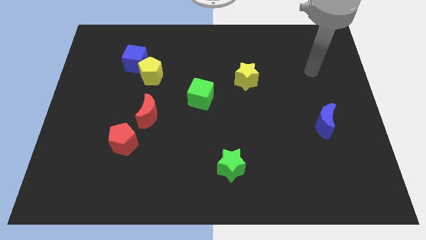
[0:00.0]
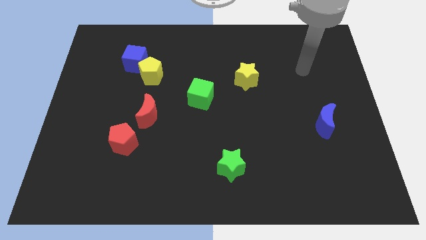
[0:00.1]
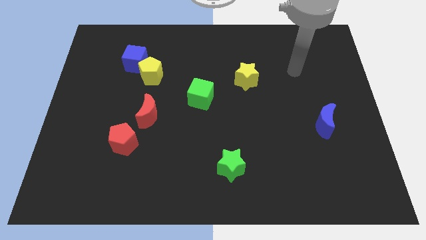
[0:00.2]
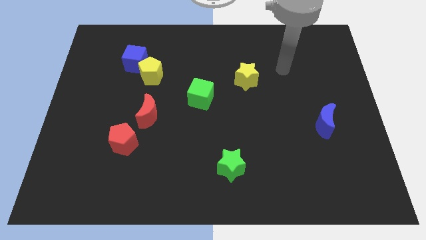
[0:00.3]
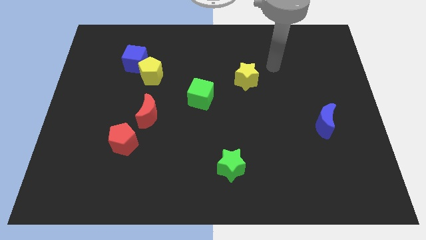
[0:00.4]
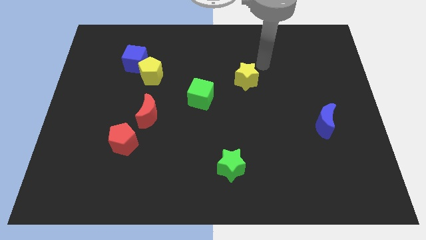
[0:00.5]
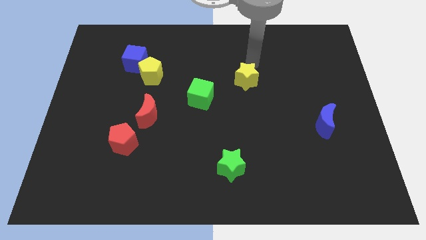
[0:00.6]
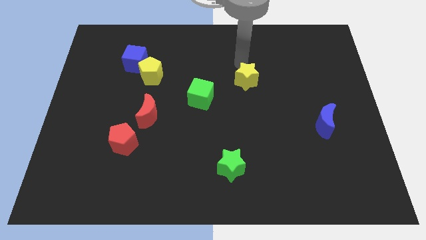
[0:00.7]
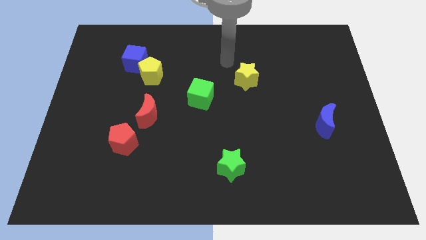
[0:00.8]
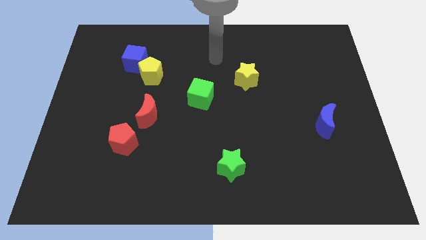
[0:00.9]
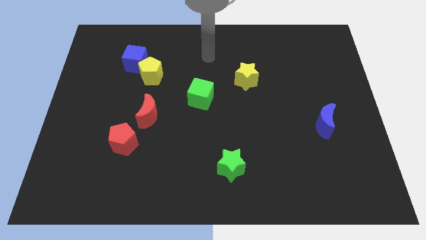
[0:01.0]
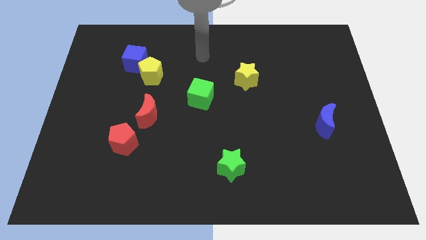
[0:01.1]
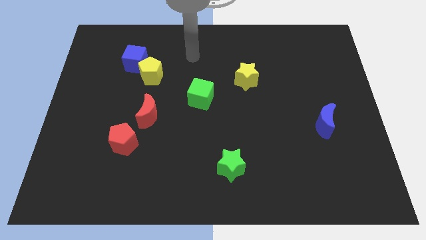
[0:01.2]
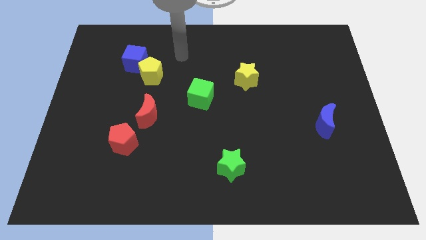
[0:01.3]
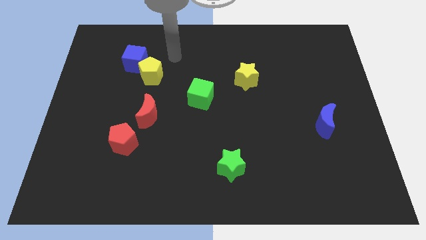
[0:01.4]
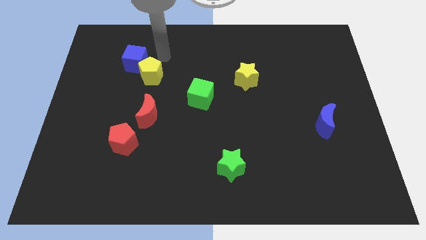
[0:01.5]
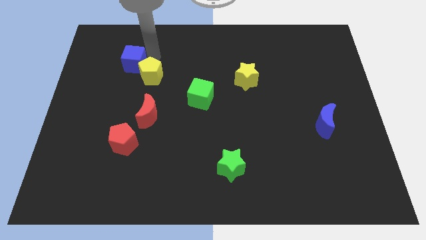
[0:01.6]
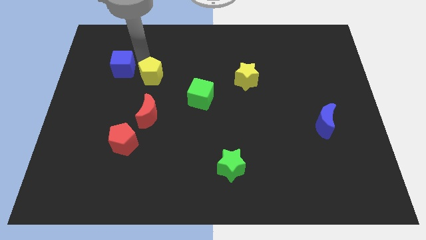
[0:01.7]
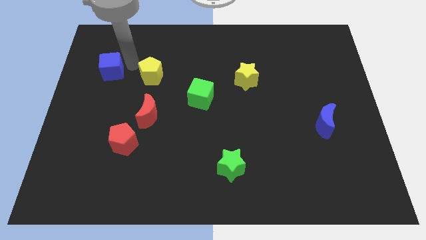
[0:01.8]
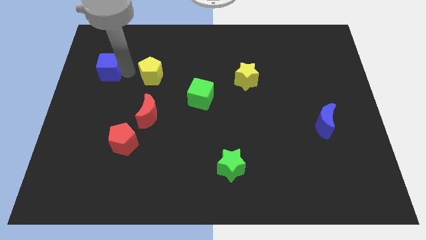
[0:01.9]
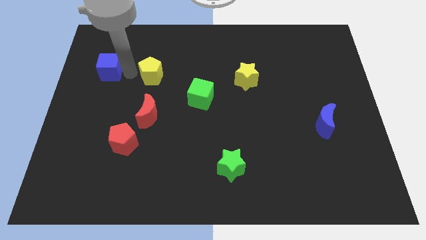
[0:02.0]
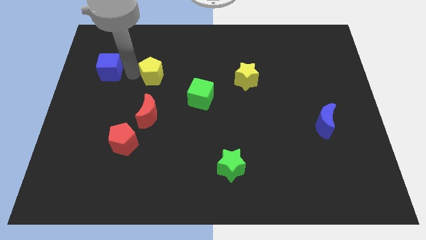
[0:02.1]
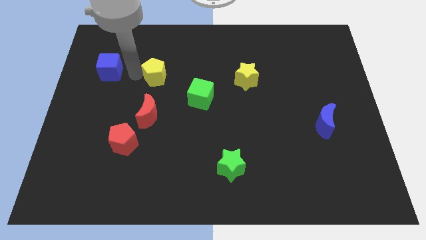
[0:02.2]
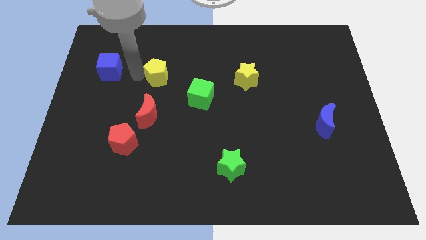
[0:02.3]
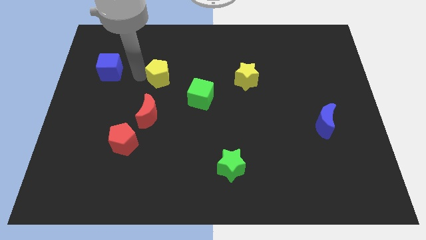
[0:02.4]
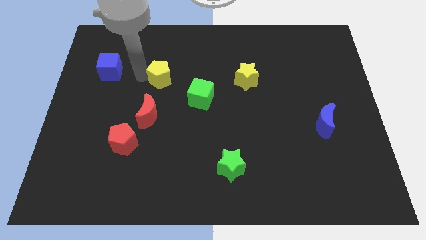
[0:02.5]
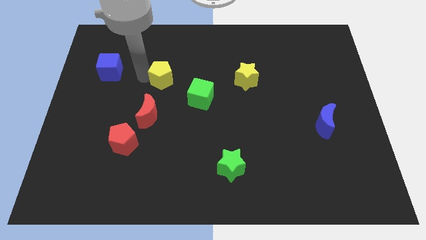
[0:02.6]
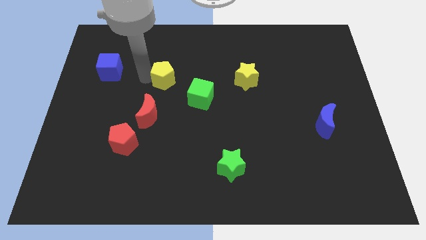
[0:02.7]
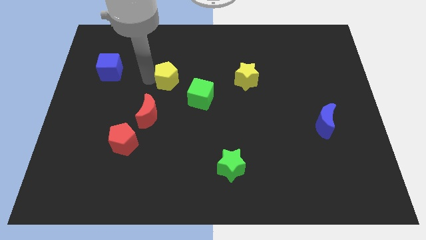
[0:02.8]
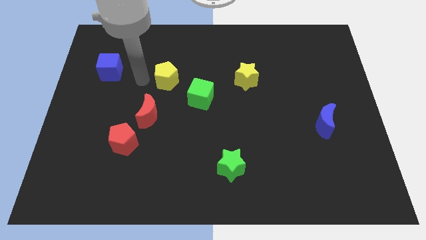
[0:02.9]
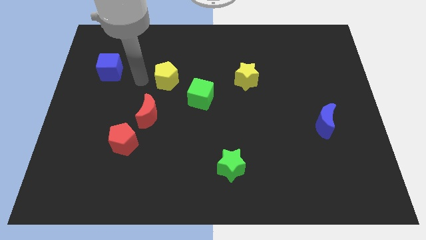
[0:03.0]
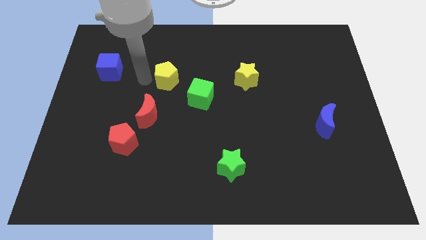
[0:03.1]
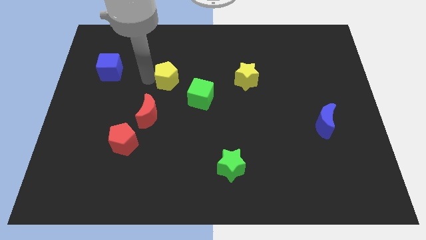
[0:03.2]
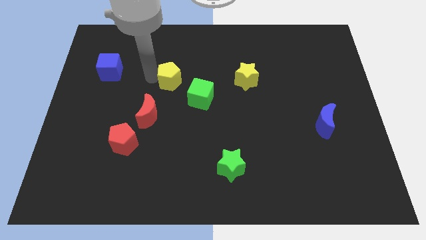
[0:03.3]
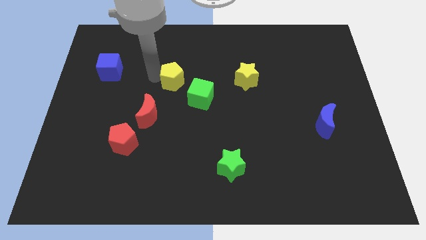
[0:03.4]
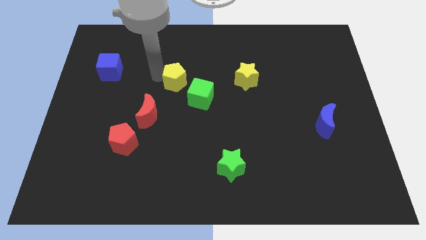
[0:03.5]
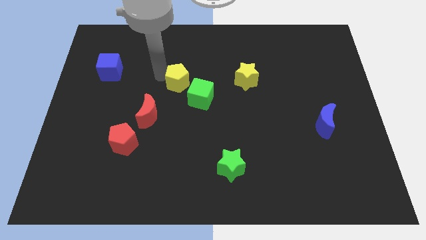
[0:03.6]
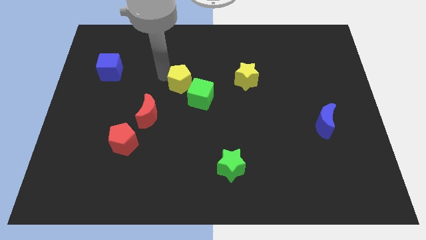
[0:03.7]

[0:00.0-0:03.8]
push the yellow pentagon a little right

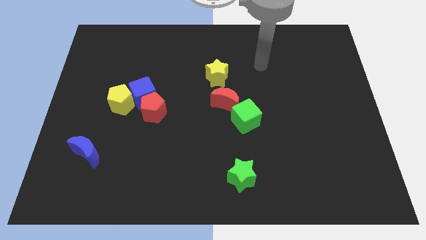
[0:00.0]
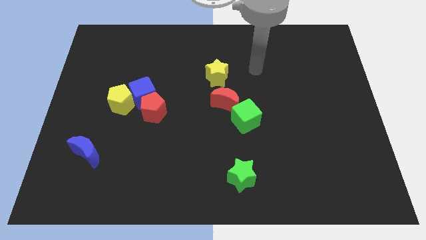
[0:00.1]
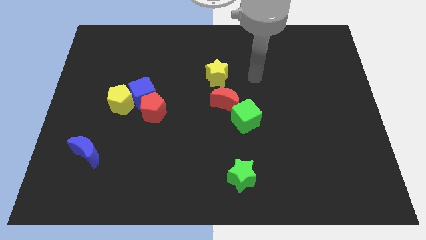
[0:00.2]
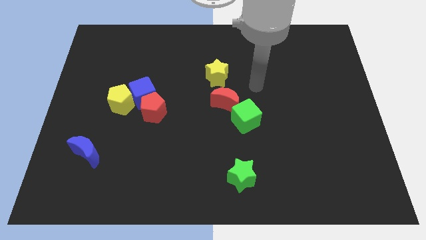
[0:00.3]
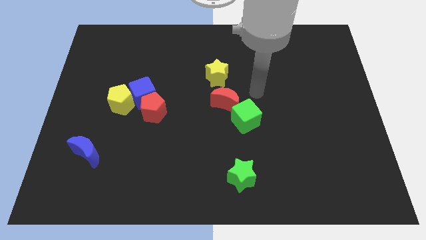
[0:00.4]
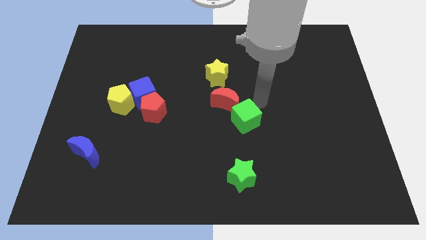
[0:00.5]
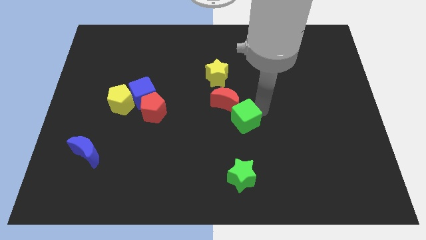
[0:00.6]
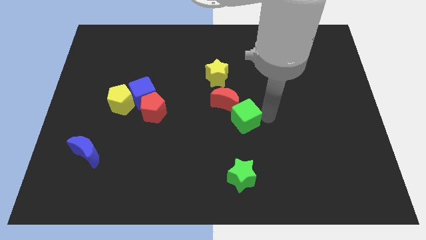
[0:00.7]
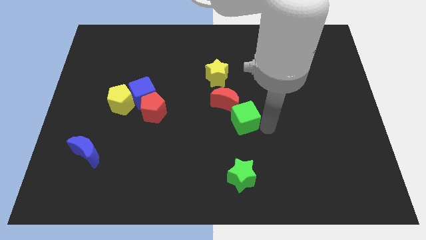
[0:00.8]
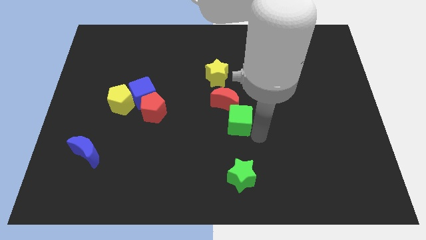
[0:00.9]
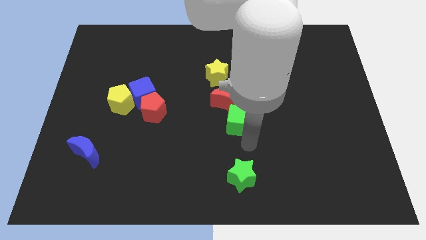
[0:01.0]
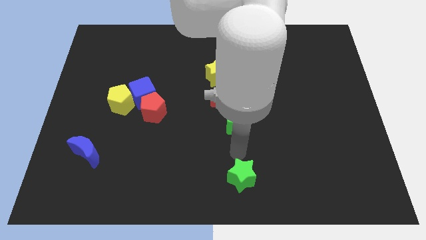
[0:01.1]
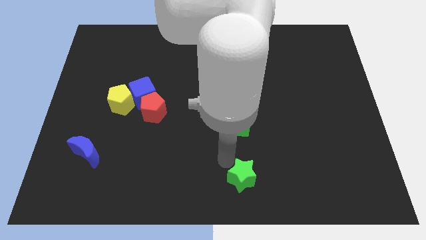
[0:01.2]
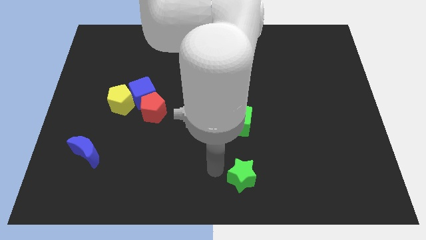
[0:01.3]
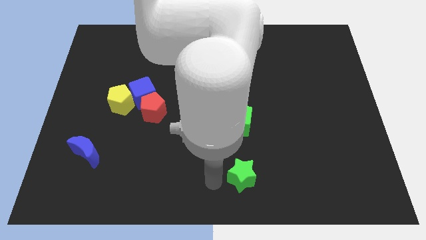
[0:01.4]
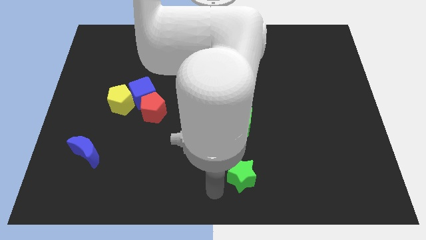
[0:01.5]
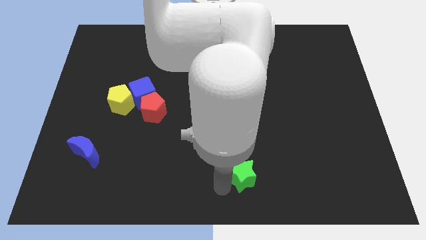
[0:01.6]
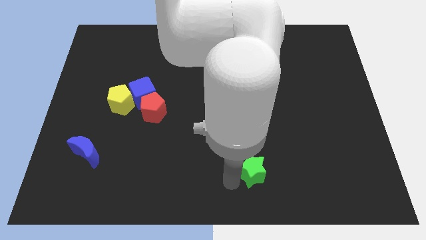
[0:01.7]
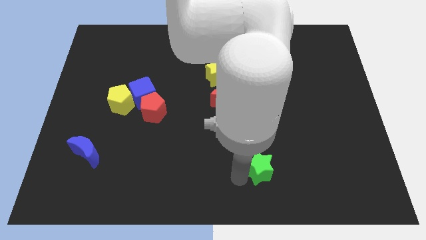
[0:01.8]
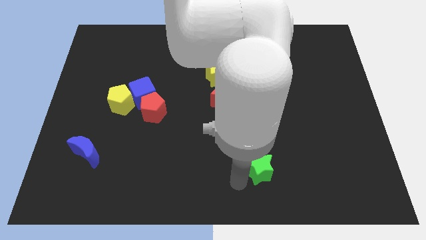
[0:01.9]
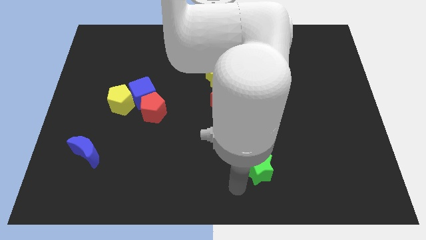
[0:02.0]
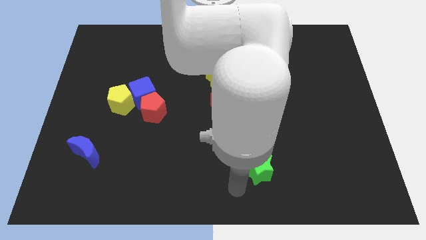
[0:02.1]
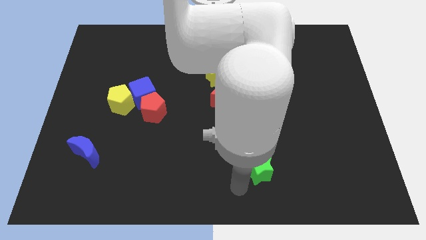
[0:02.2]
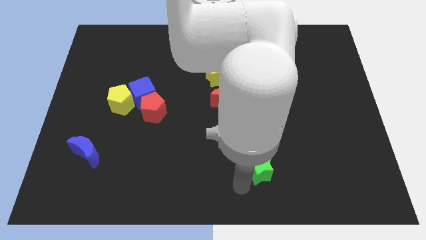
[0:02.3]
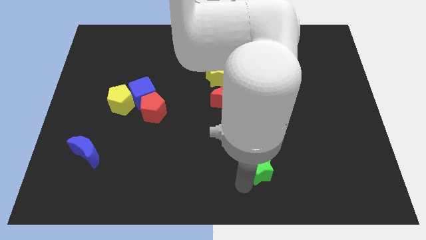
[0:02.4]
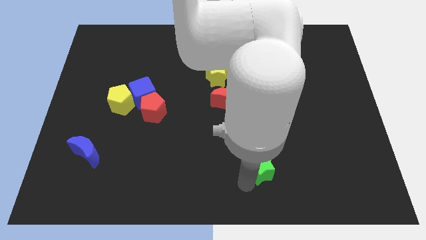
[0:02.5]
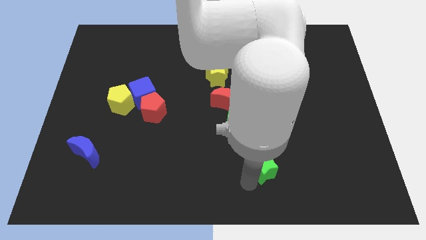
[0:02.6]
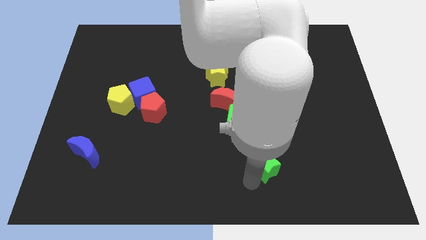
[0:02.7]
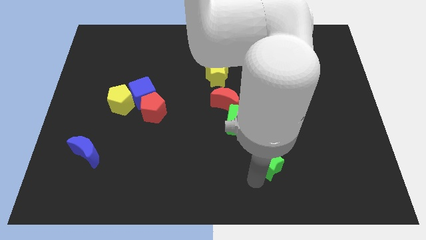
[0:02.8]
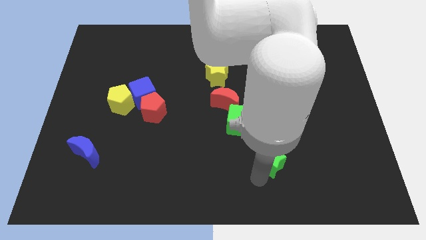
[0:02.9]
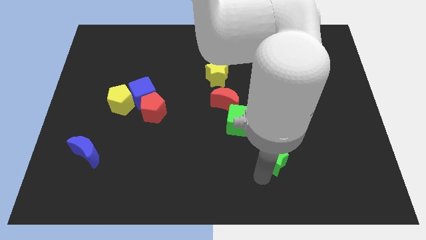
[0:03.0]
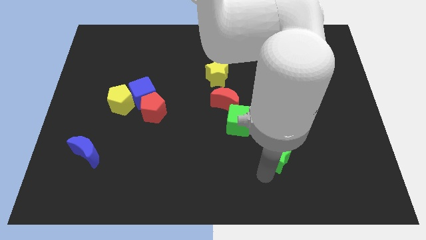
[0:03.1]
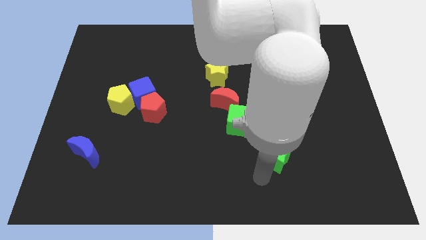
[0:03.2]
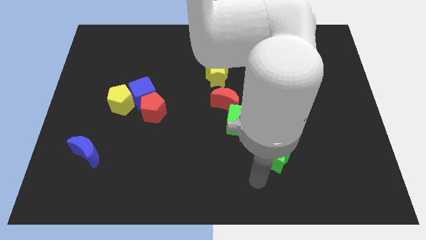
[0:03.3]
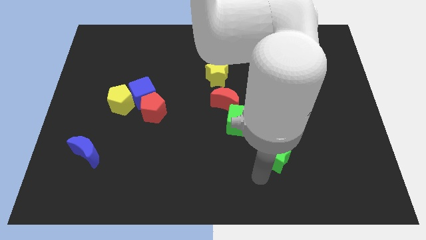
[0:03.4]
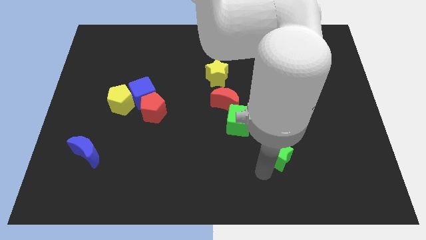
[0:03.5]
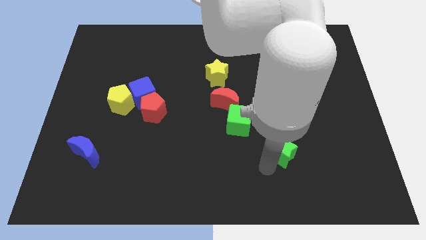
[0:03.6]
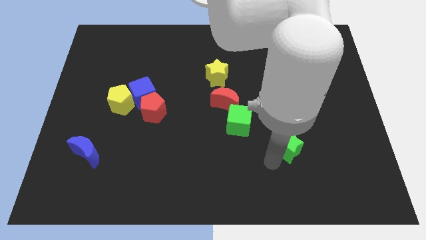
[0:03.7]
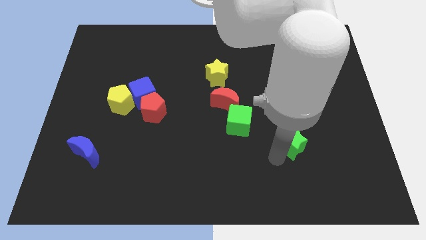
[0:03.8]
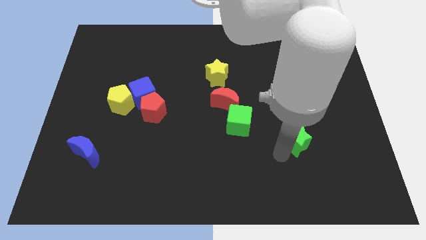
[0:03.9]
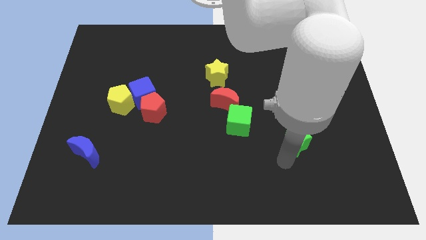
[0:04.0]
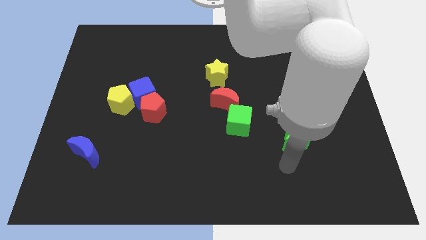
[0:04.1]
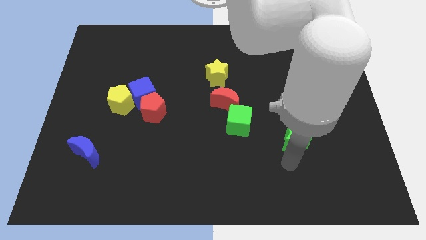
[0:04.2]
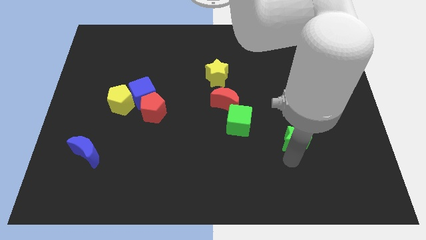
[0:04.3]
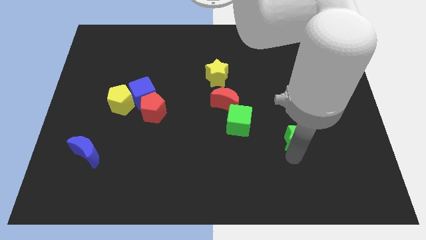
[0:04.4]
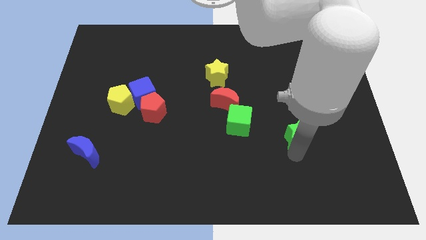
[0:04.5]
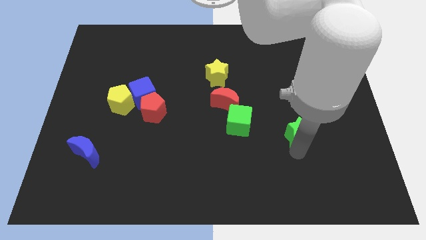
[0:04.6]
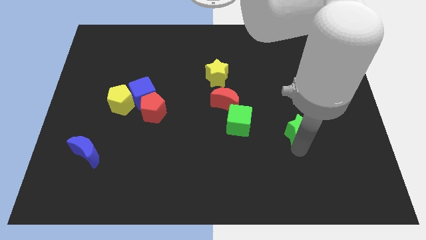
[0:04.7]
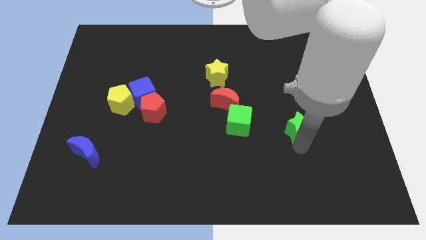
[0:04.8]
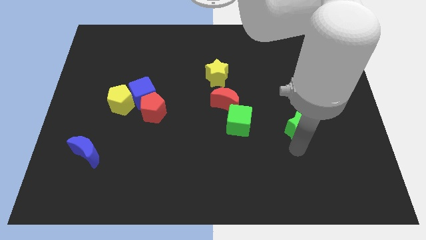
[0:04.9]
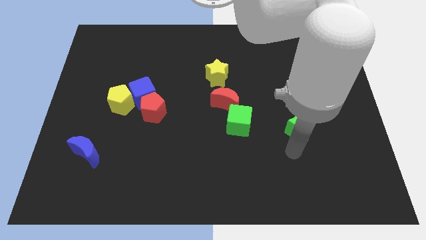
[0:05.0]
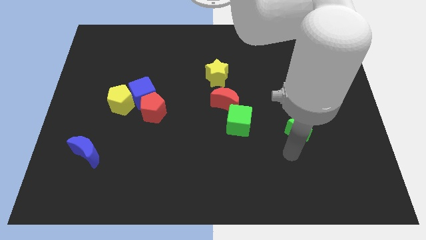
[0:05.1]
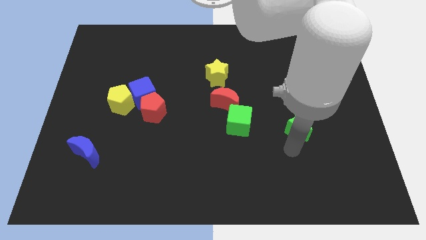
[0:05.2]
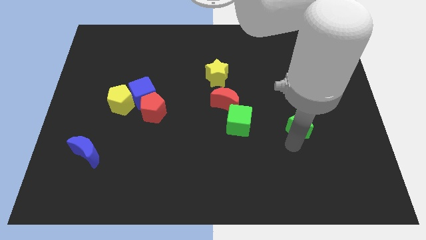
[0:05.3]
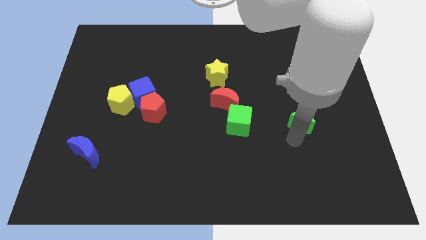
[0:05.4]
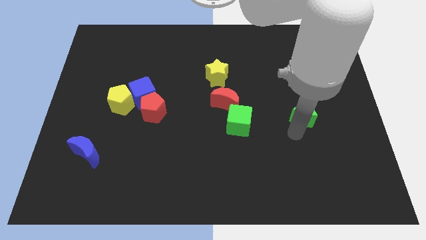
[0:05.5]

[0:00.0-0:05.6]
push the green star diagonally upwards and to the right
